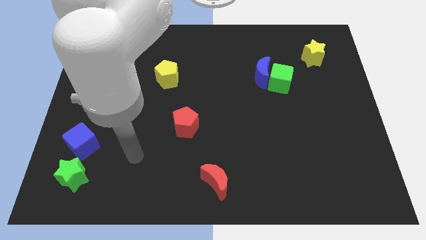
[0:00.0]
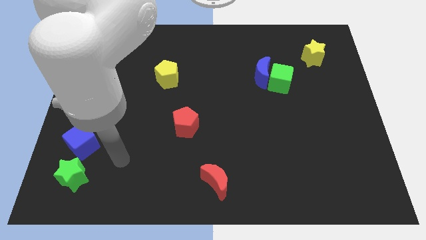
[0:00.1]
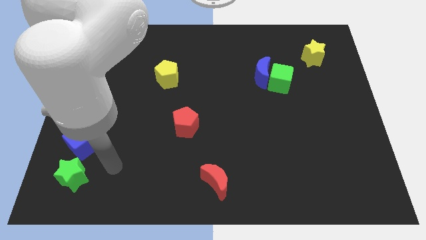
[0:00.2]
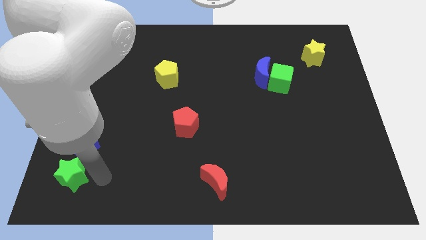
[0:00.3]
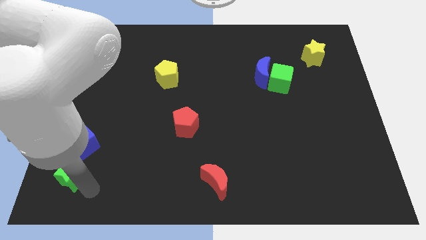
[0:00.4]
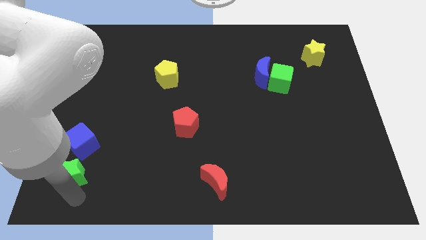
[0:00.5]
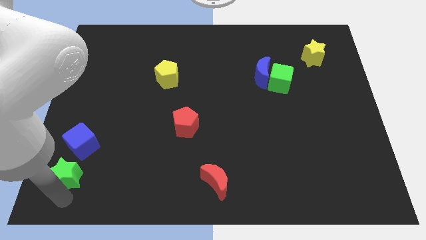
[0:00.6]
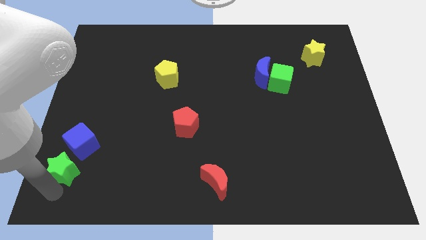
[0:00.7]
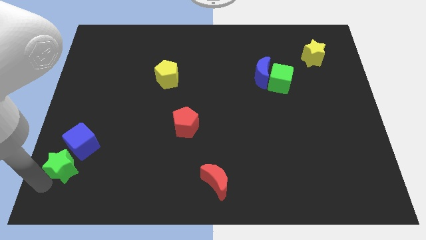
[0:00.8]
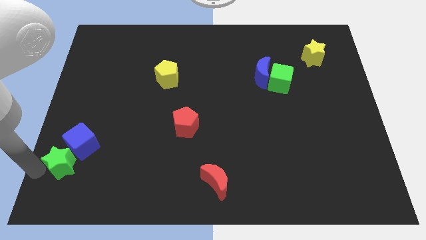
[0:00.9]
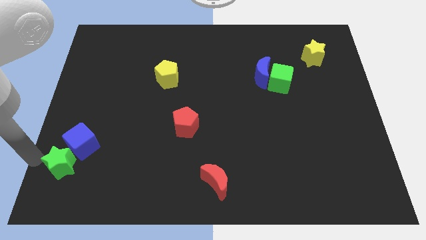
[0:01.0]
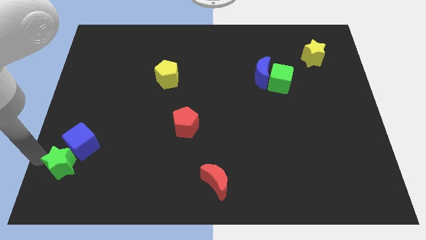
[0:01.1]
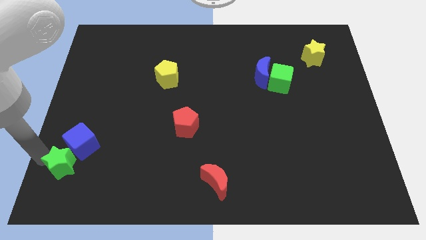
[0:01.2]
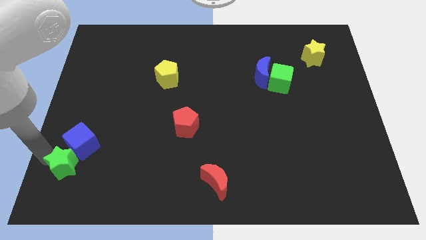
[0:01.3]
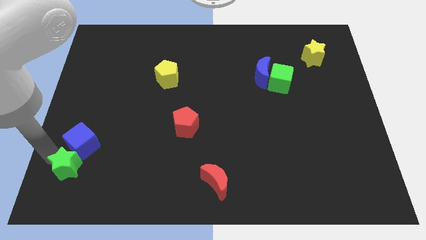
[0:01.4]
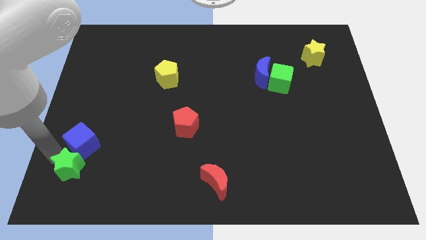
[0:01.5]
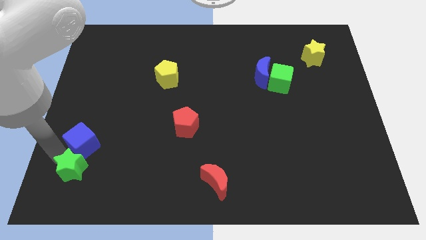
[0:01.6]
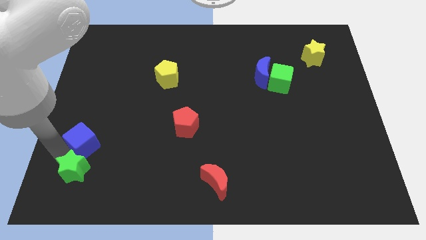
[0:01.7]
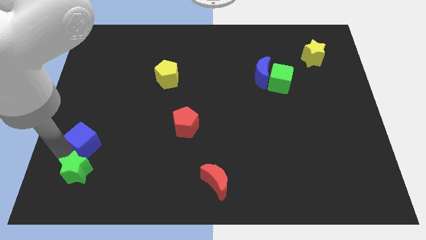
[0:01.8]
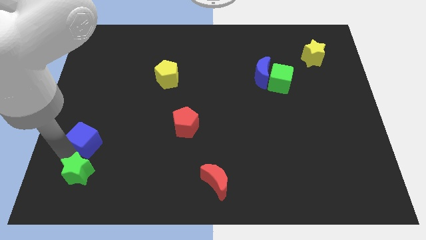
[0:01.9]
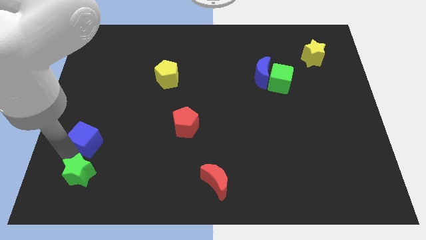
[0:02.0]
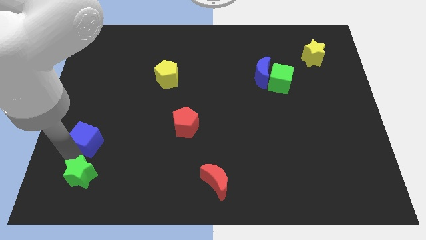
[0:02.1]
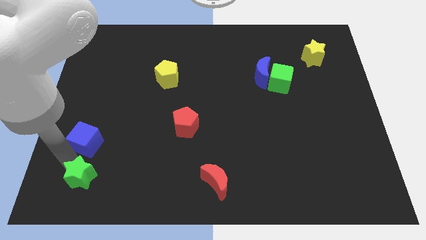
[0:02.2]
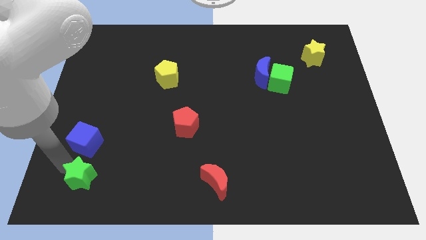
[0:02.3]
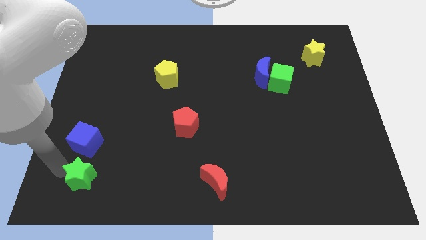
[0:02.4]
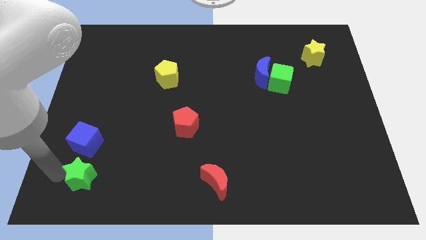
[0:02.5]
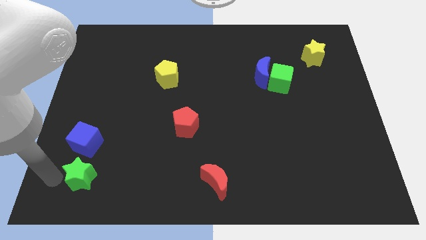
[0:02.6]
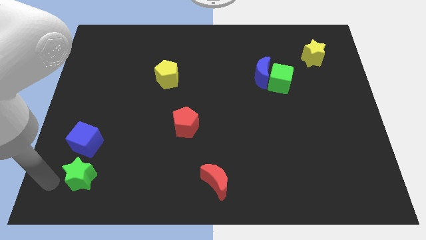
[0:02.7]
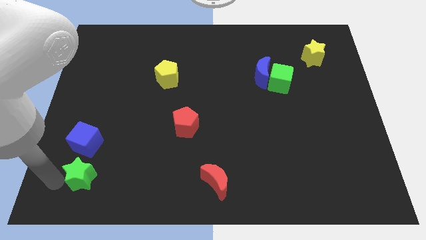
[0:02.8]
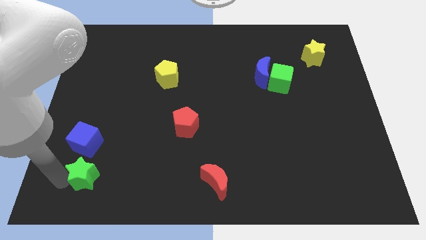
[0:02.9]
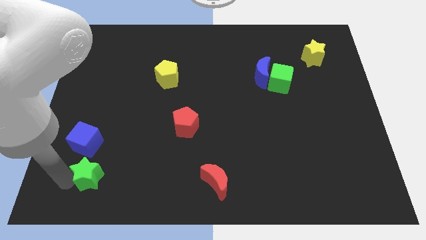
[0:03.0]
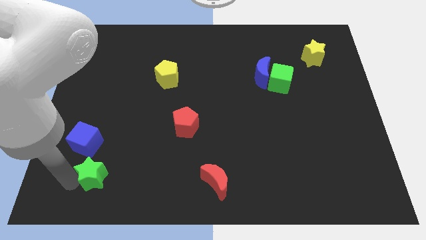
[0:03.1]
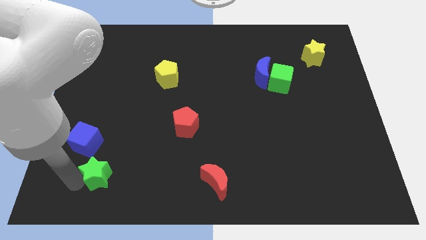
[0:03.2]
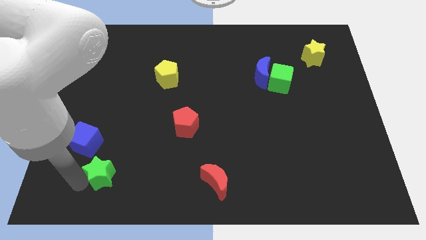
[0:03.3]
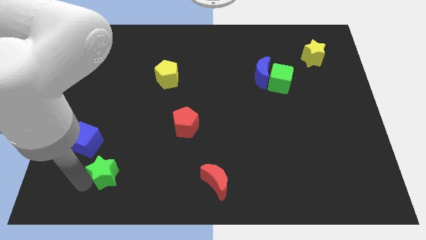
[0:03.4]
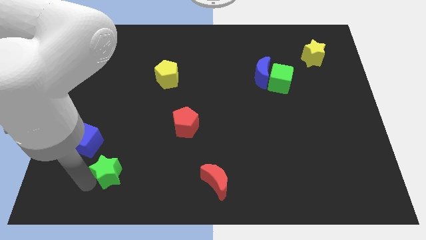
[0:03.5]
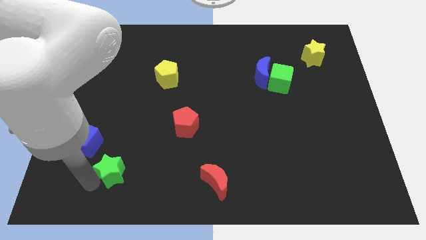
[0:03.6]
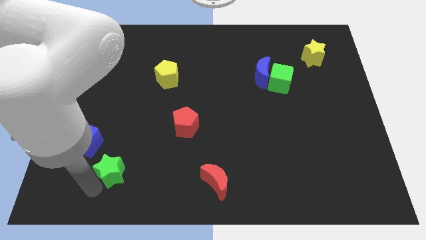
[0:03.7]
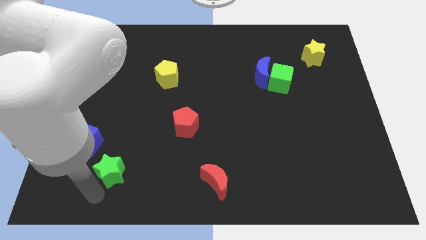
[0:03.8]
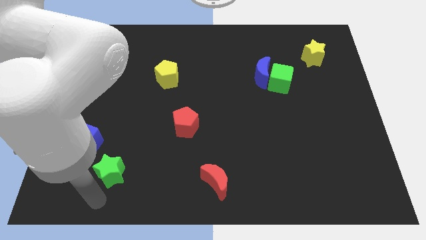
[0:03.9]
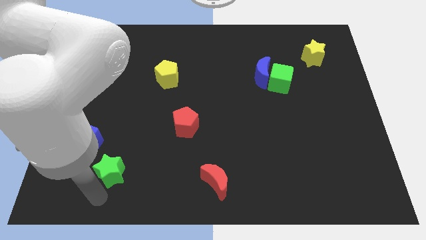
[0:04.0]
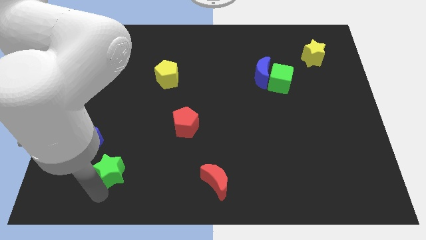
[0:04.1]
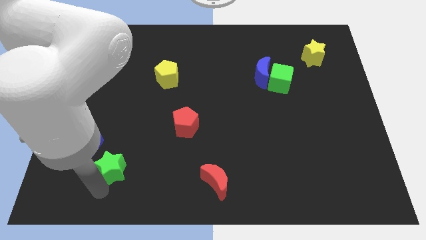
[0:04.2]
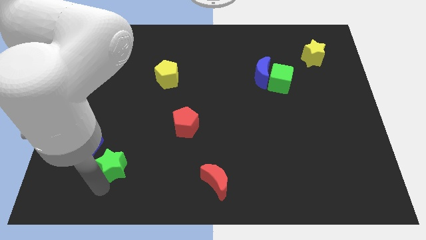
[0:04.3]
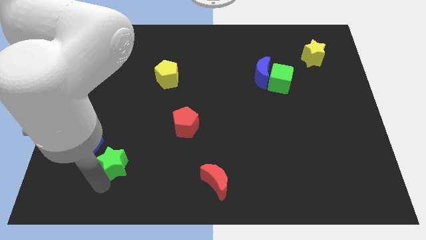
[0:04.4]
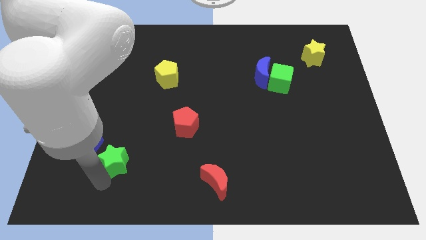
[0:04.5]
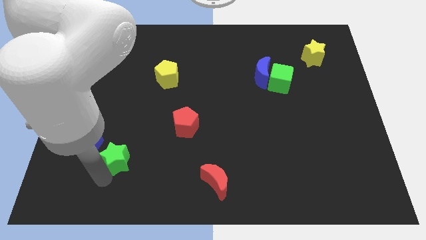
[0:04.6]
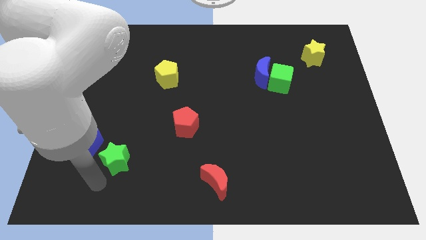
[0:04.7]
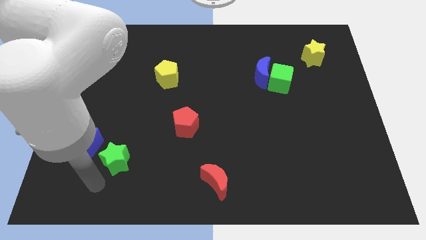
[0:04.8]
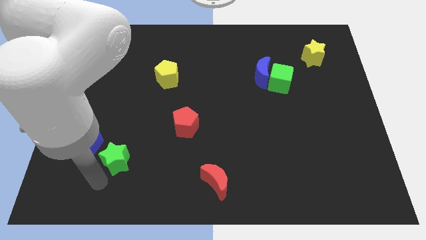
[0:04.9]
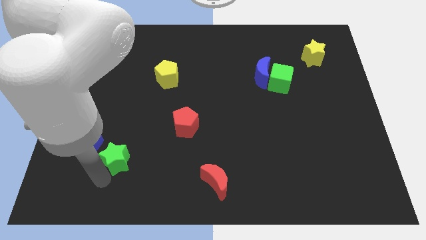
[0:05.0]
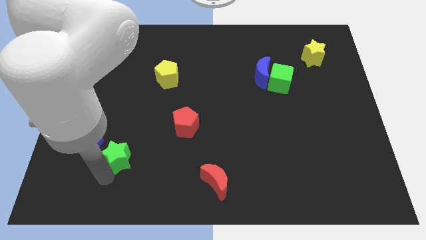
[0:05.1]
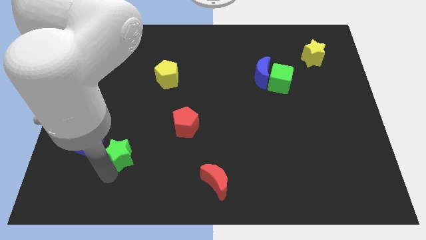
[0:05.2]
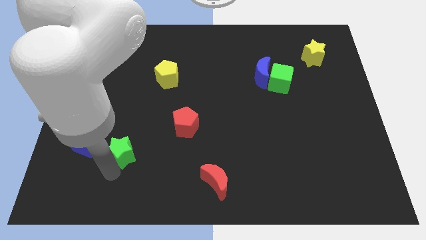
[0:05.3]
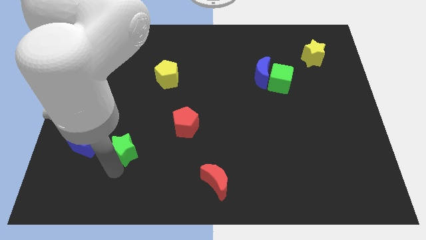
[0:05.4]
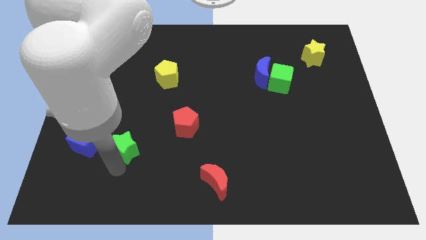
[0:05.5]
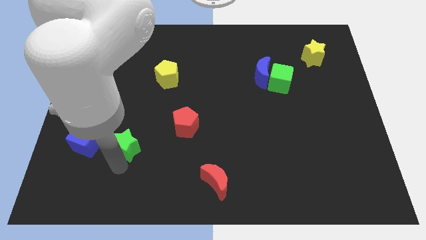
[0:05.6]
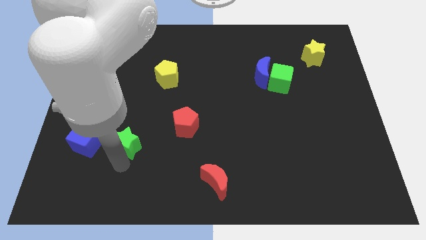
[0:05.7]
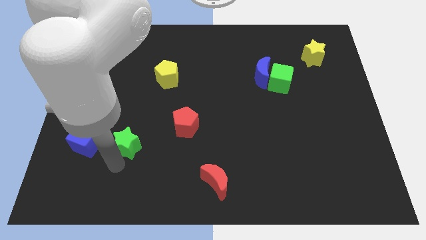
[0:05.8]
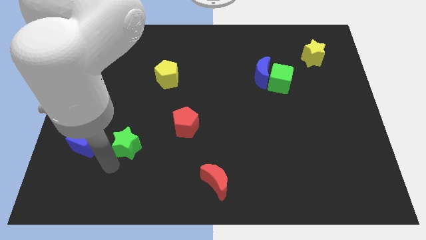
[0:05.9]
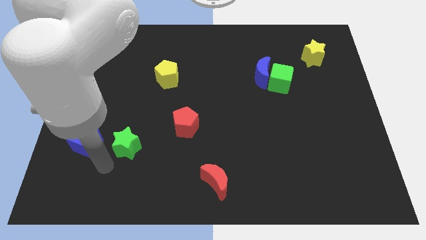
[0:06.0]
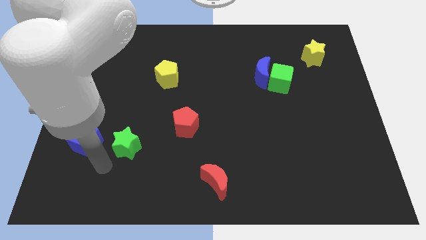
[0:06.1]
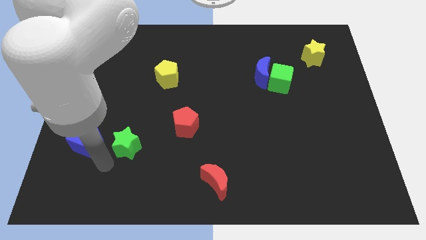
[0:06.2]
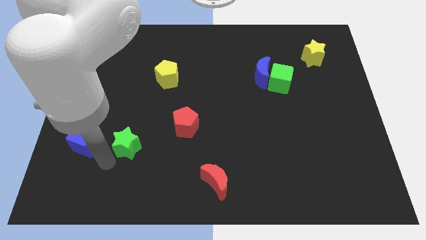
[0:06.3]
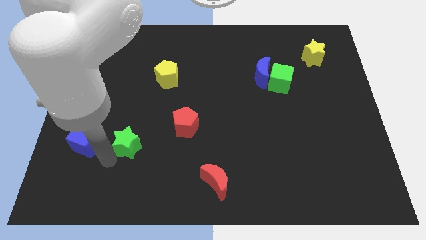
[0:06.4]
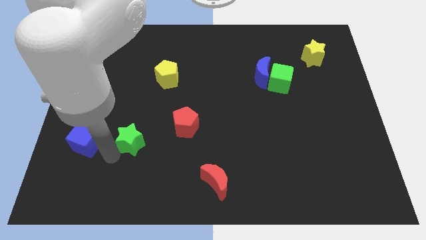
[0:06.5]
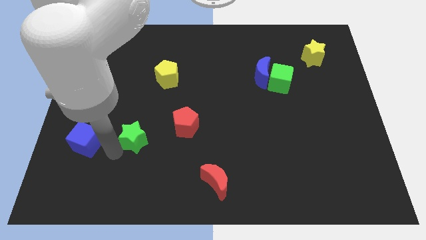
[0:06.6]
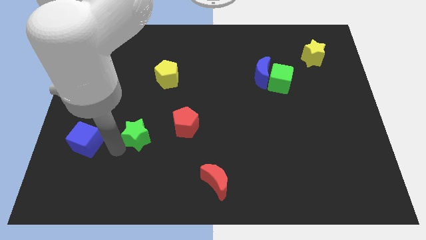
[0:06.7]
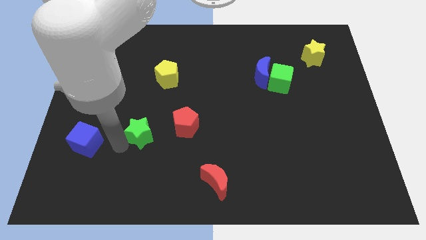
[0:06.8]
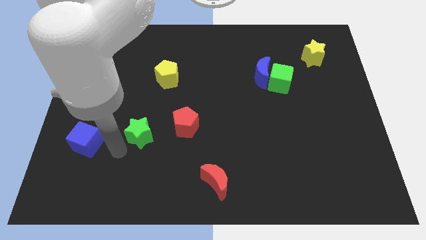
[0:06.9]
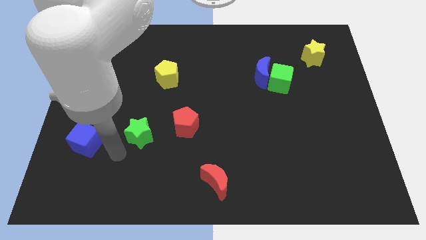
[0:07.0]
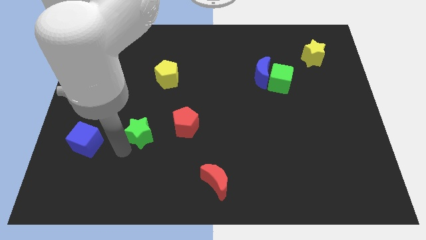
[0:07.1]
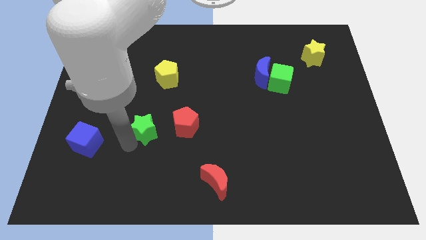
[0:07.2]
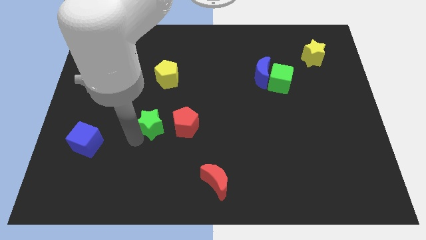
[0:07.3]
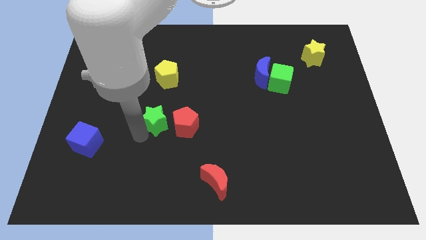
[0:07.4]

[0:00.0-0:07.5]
slide the green star upwards and then right

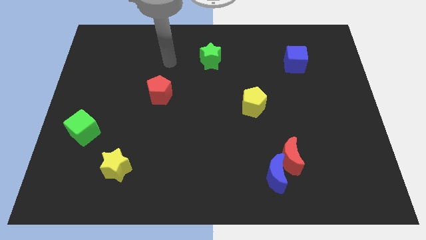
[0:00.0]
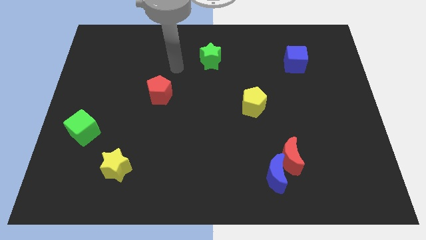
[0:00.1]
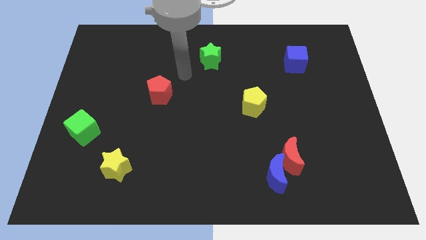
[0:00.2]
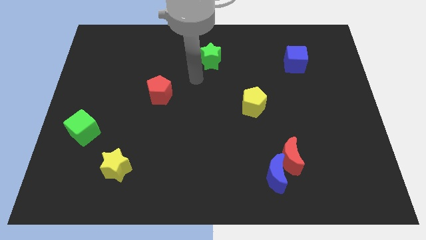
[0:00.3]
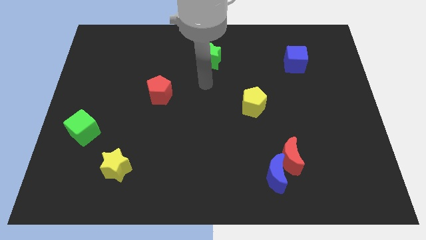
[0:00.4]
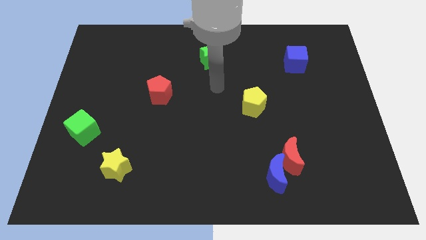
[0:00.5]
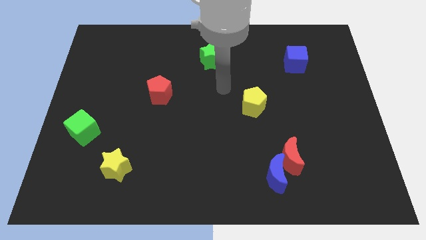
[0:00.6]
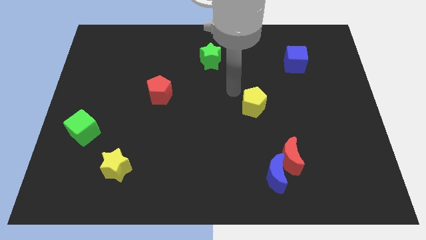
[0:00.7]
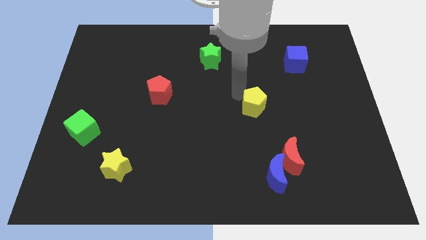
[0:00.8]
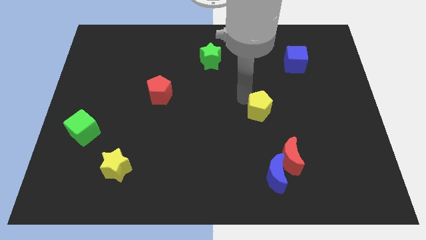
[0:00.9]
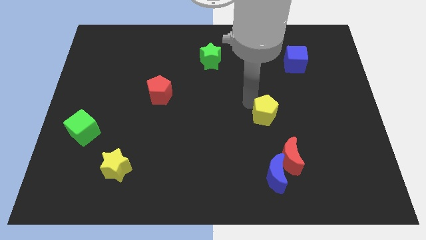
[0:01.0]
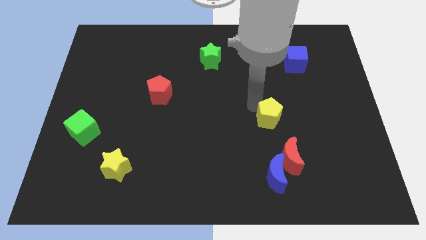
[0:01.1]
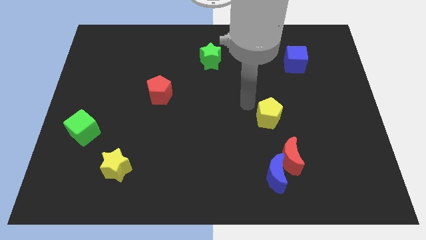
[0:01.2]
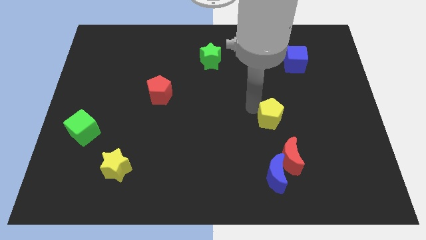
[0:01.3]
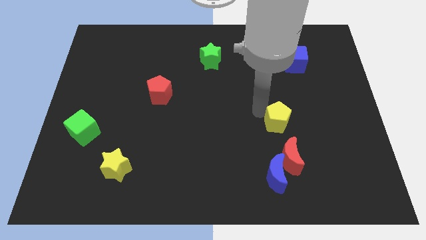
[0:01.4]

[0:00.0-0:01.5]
move the yellow pentagon somewhat downwards and then to the right
